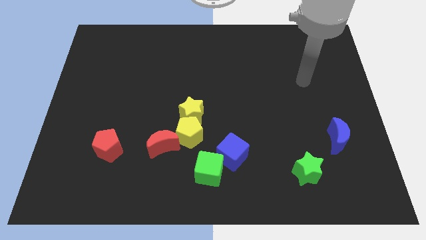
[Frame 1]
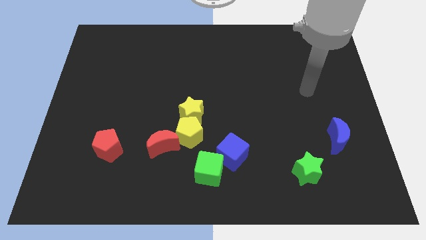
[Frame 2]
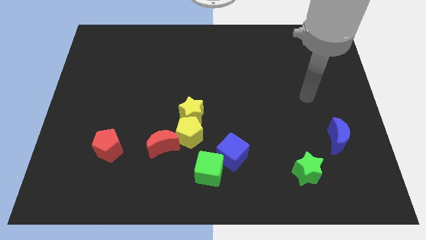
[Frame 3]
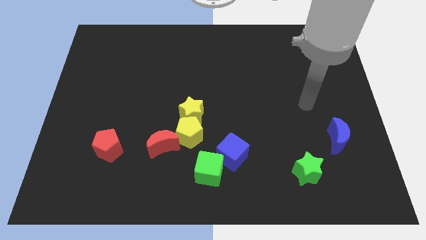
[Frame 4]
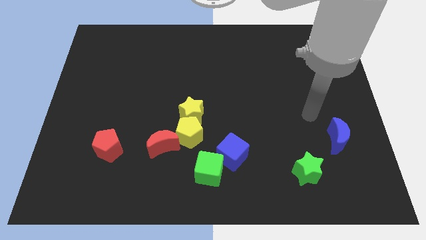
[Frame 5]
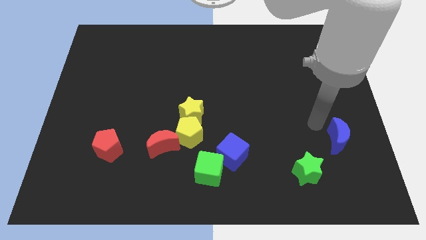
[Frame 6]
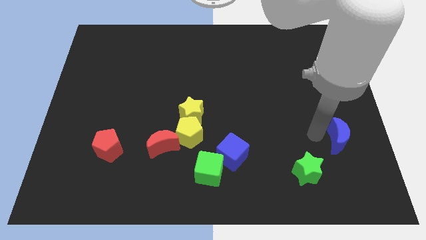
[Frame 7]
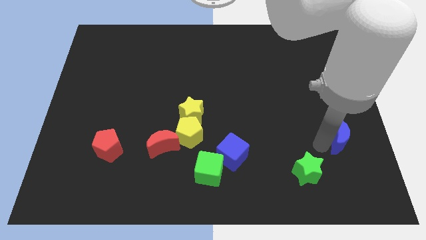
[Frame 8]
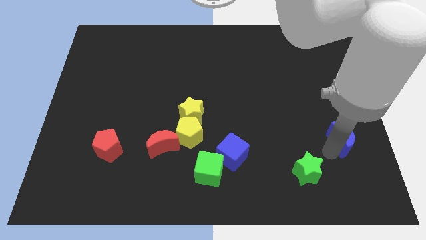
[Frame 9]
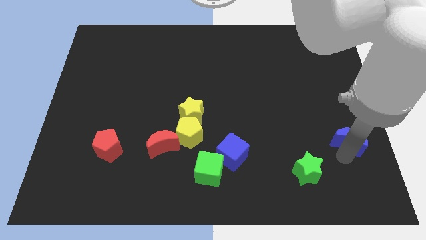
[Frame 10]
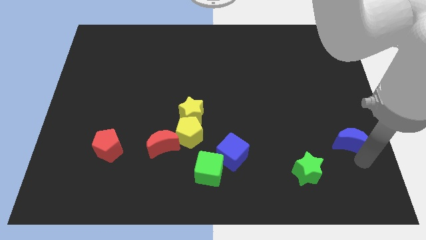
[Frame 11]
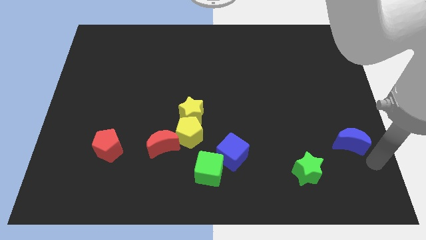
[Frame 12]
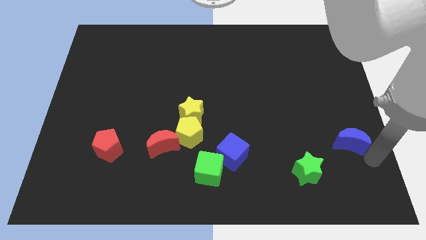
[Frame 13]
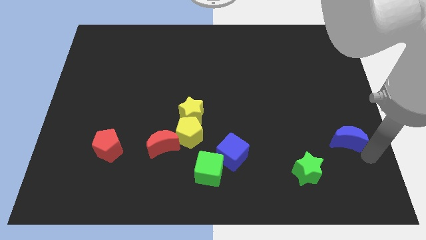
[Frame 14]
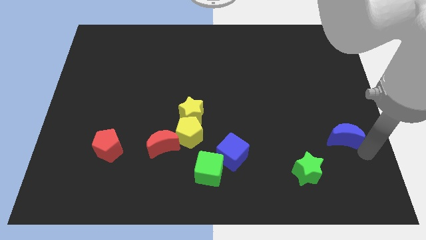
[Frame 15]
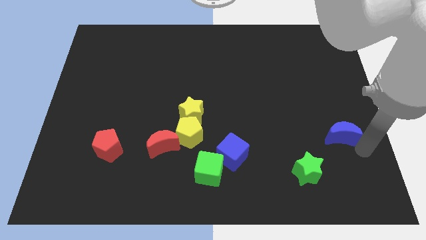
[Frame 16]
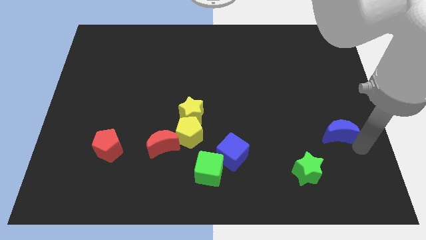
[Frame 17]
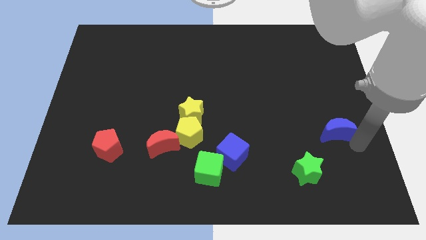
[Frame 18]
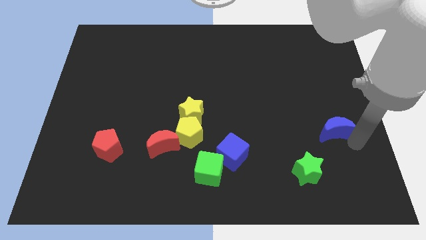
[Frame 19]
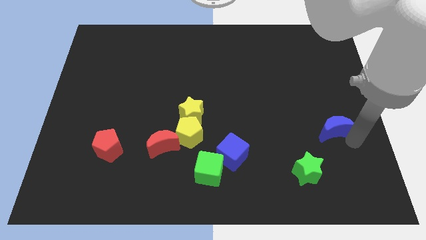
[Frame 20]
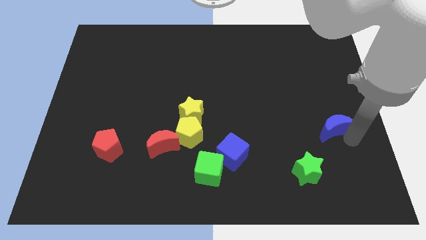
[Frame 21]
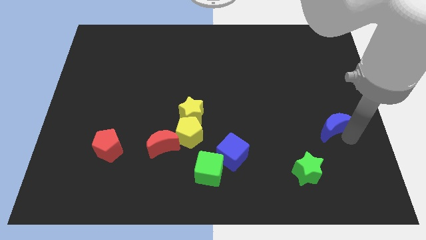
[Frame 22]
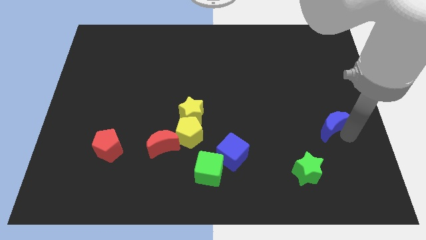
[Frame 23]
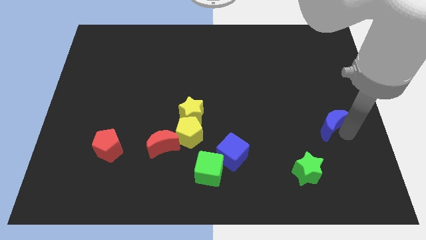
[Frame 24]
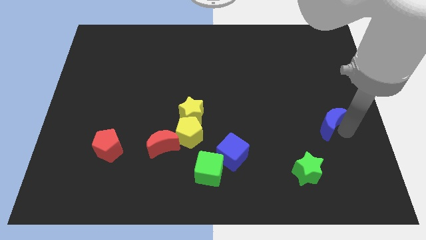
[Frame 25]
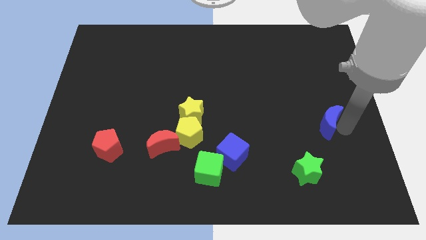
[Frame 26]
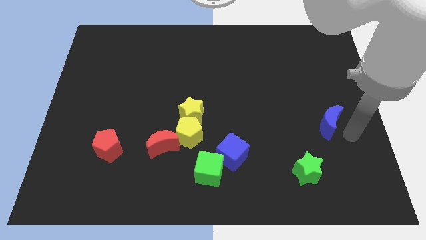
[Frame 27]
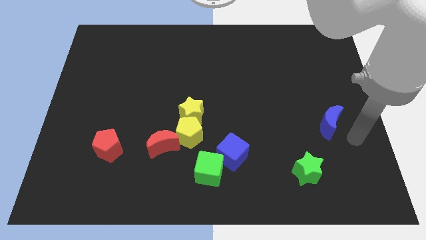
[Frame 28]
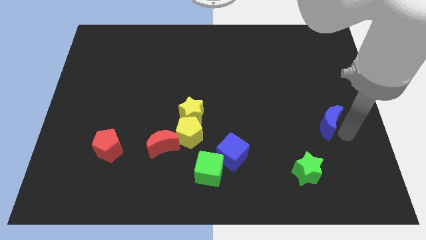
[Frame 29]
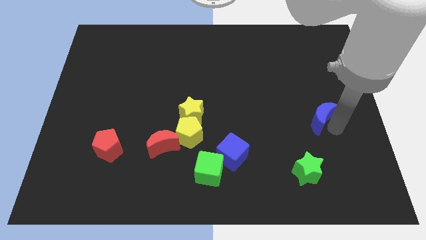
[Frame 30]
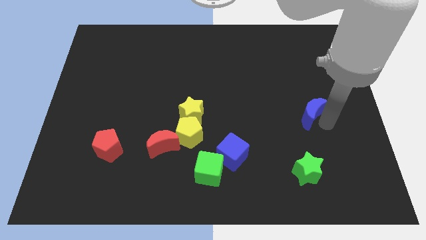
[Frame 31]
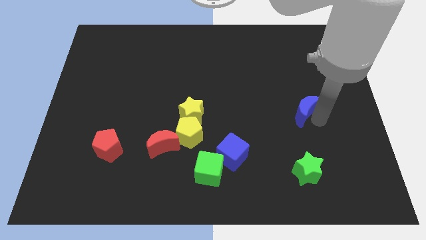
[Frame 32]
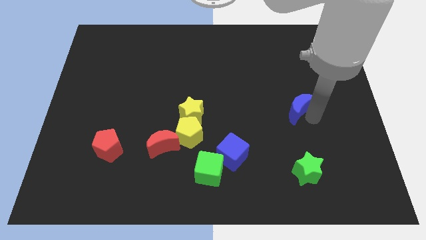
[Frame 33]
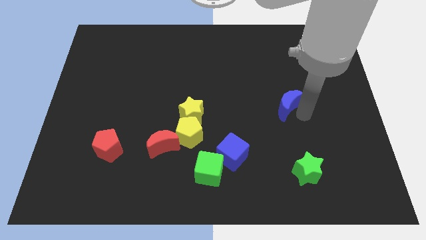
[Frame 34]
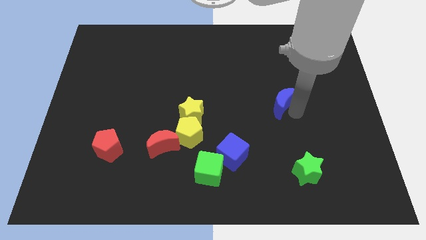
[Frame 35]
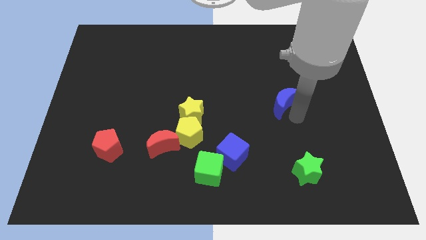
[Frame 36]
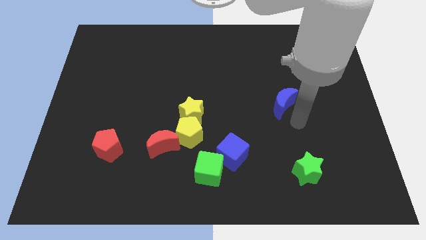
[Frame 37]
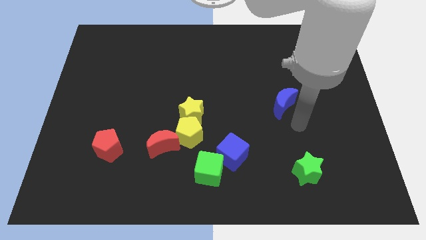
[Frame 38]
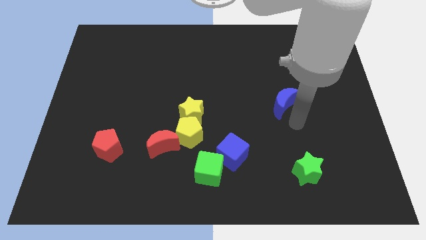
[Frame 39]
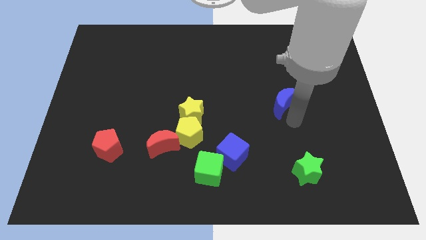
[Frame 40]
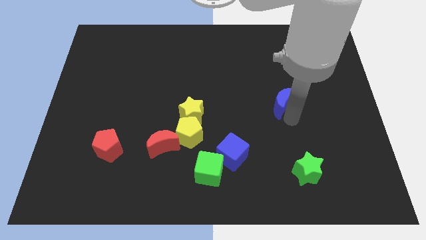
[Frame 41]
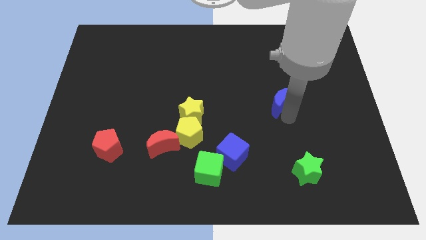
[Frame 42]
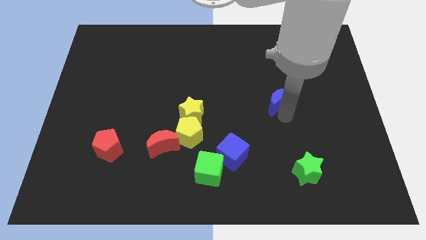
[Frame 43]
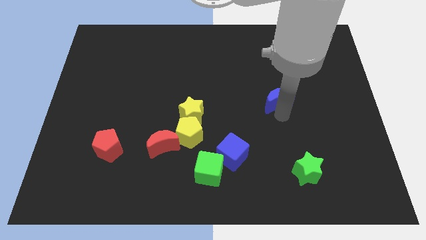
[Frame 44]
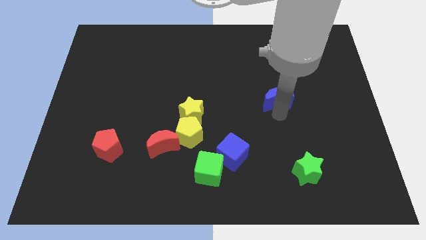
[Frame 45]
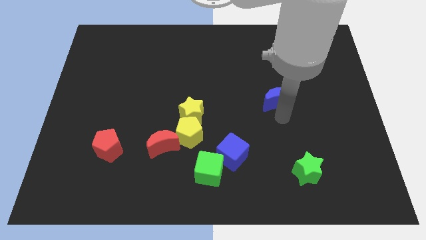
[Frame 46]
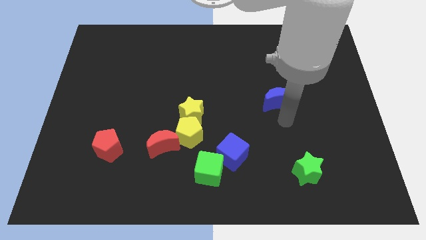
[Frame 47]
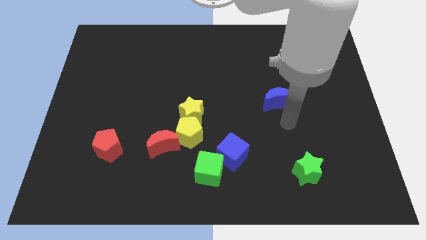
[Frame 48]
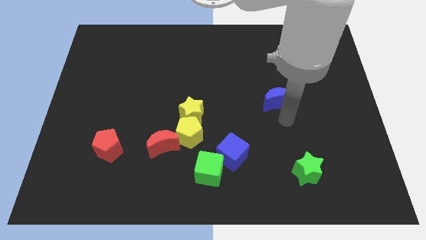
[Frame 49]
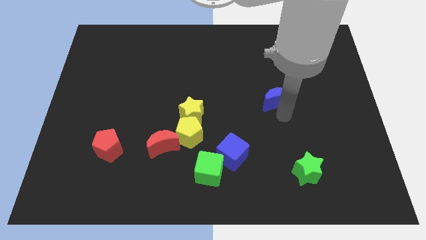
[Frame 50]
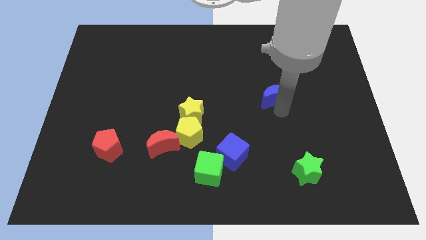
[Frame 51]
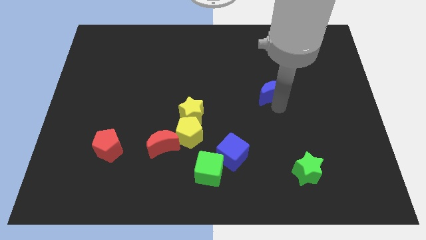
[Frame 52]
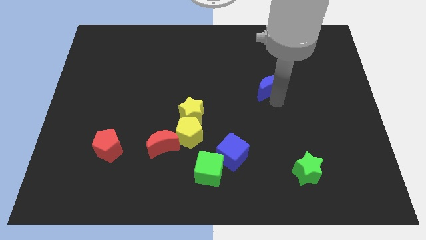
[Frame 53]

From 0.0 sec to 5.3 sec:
slide the blue moon up and then to the left

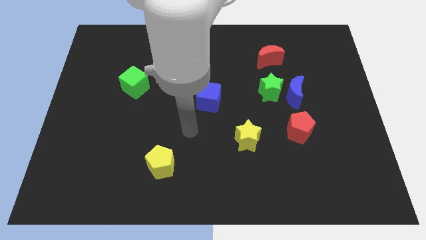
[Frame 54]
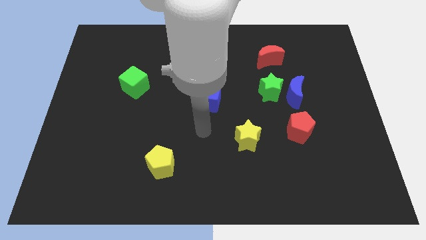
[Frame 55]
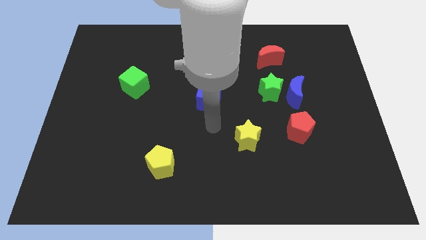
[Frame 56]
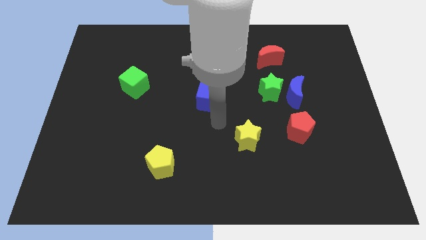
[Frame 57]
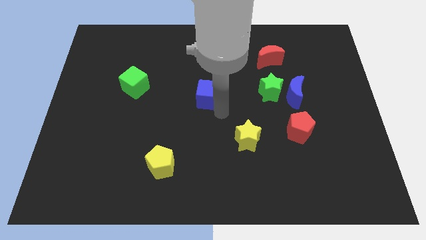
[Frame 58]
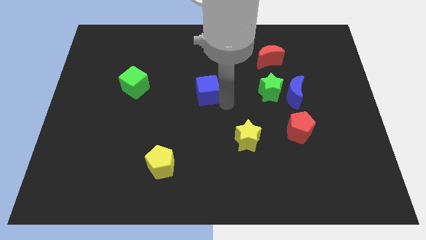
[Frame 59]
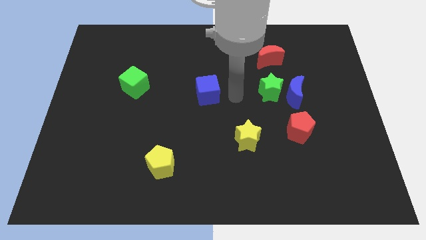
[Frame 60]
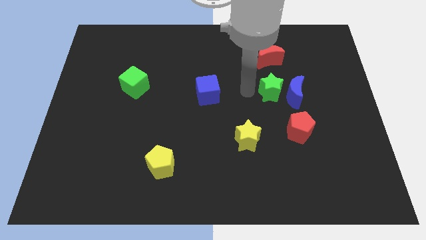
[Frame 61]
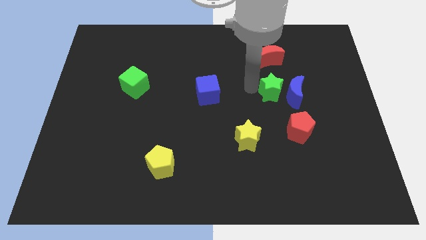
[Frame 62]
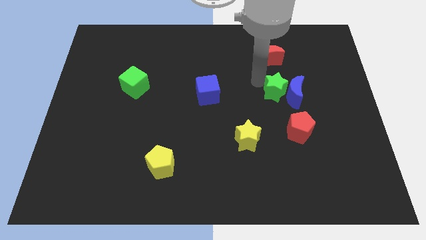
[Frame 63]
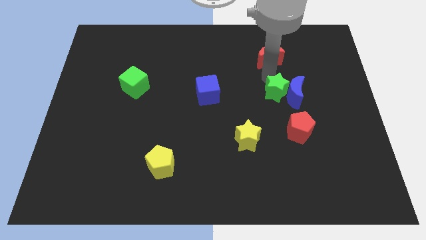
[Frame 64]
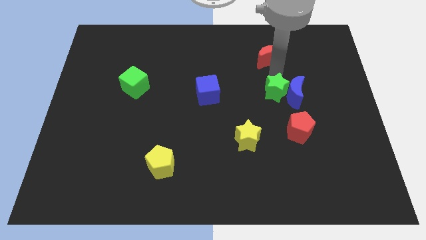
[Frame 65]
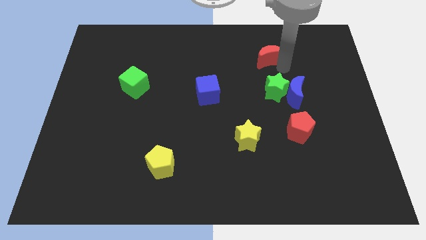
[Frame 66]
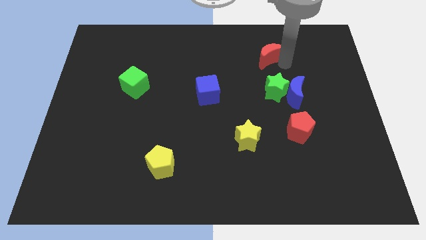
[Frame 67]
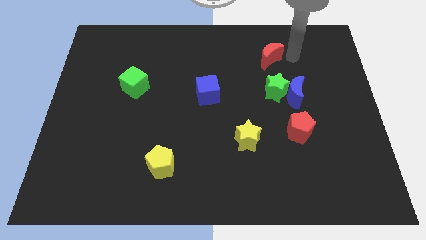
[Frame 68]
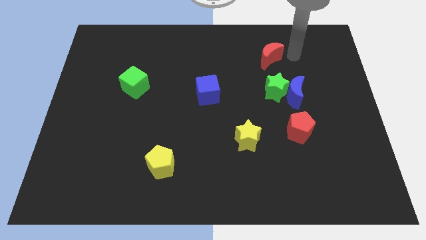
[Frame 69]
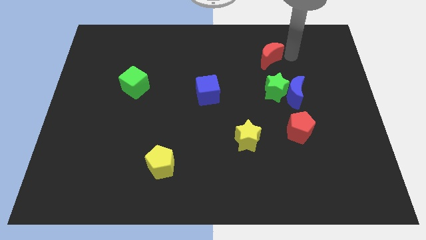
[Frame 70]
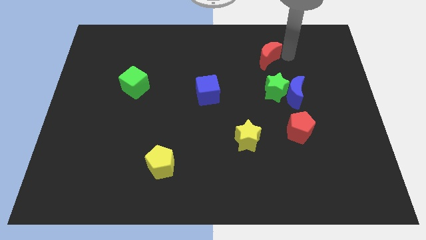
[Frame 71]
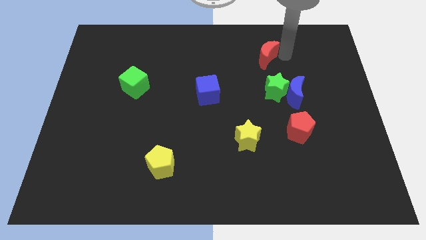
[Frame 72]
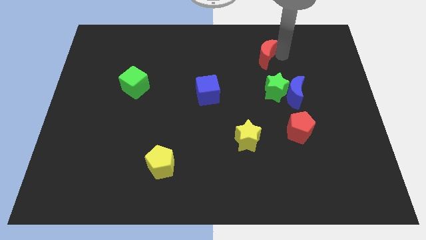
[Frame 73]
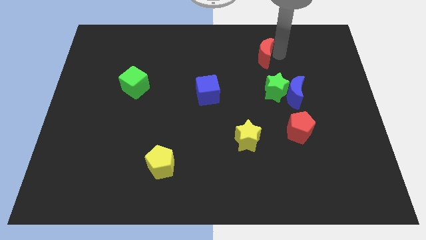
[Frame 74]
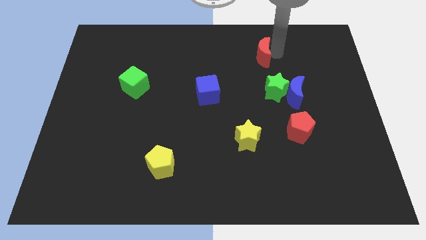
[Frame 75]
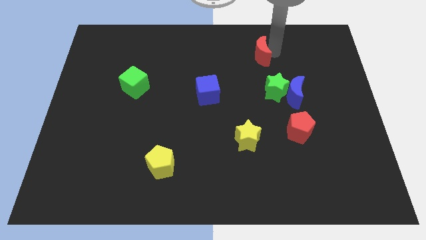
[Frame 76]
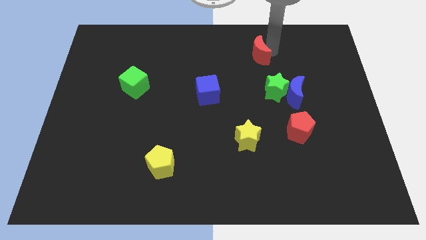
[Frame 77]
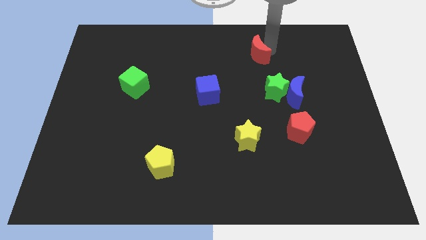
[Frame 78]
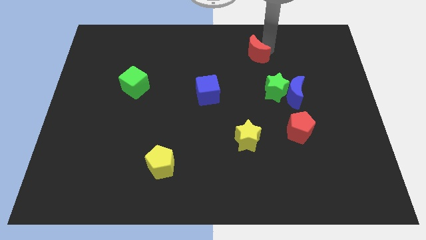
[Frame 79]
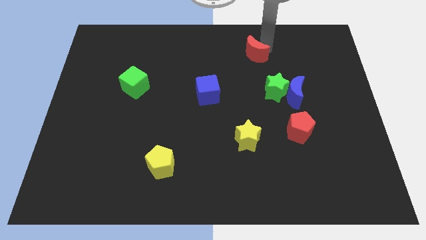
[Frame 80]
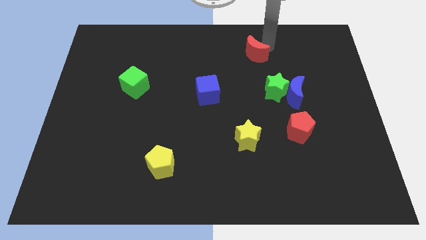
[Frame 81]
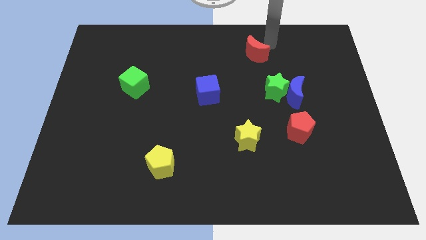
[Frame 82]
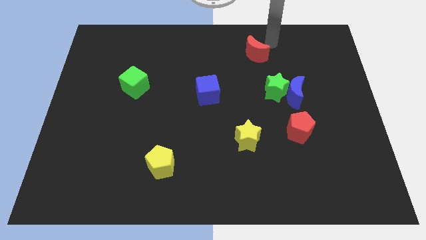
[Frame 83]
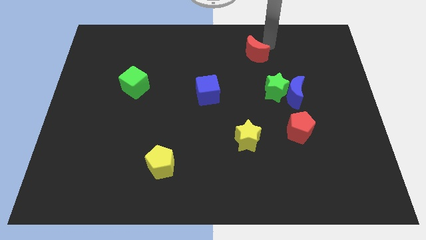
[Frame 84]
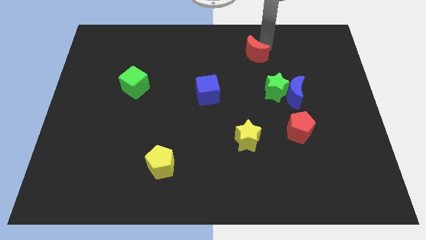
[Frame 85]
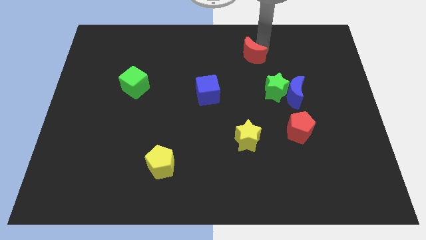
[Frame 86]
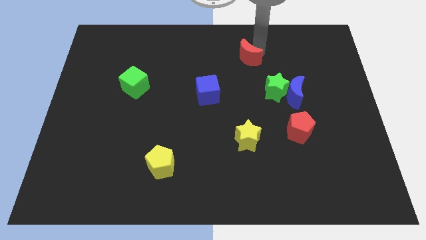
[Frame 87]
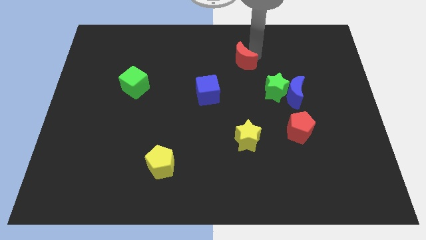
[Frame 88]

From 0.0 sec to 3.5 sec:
push the red moon slightly to the left
